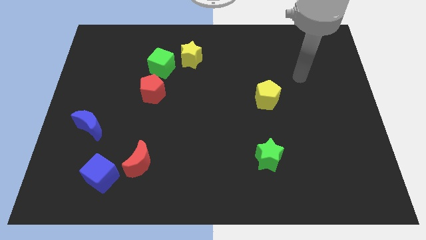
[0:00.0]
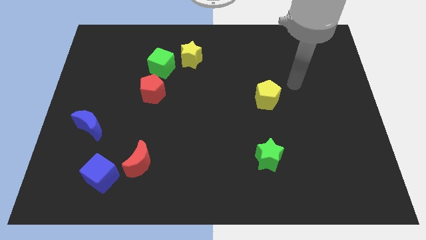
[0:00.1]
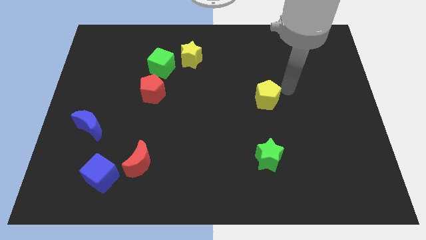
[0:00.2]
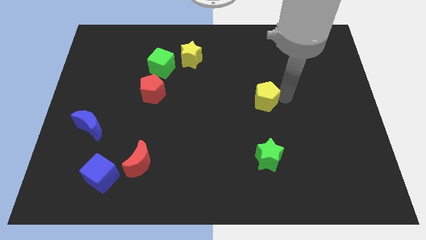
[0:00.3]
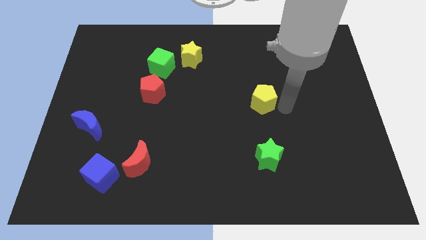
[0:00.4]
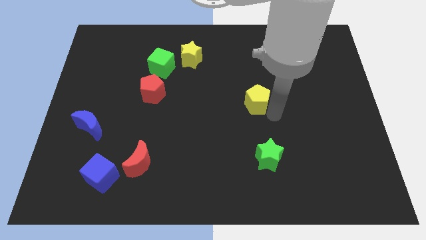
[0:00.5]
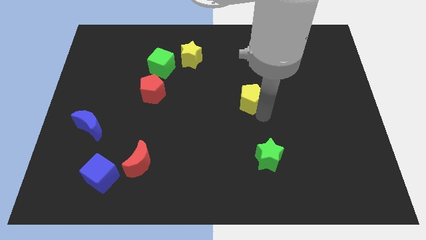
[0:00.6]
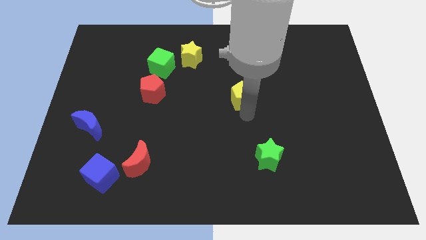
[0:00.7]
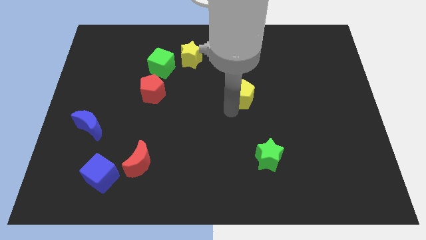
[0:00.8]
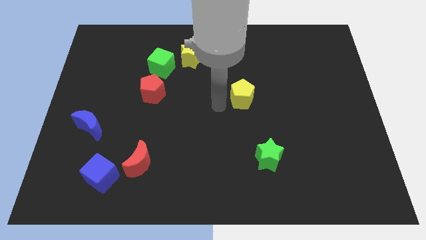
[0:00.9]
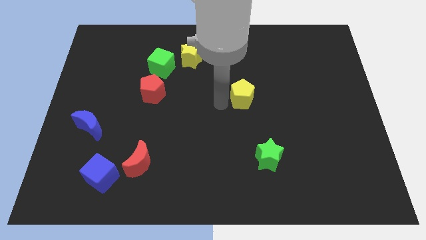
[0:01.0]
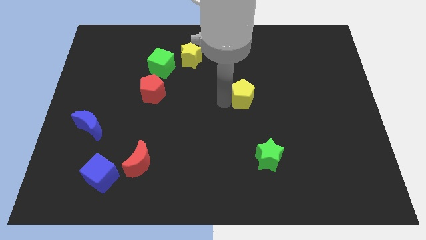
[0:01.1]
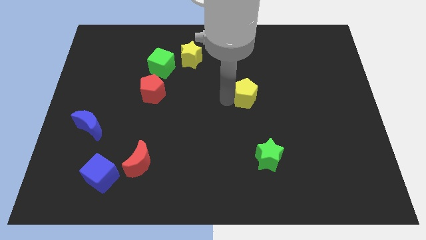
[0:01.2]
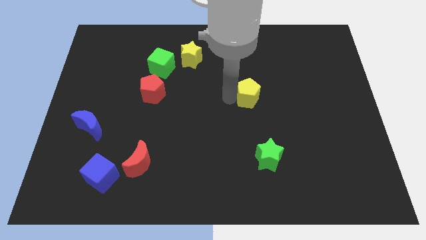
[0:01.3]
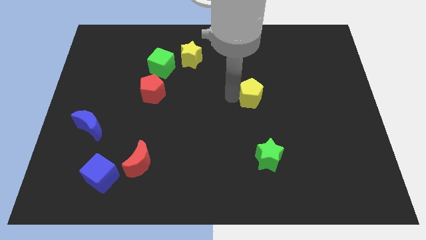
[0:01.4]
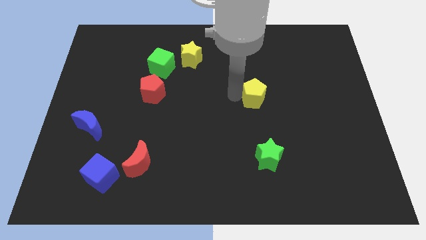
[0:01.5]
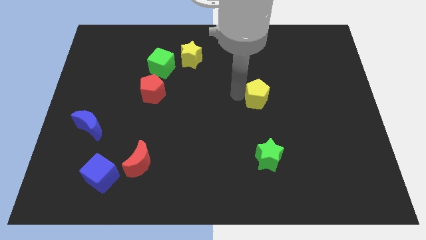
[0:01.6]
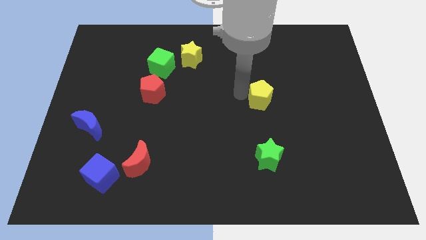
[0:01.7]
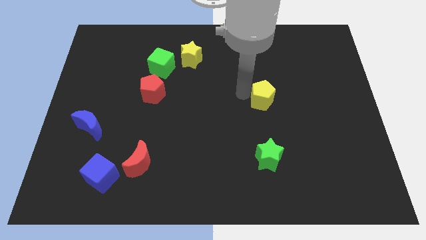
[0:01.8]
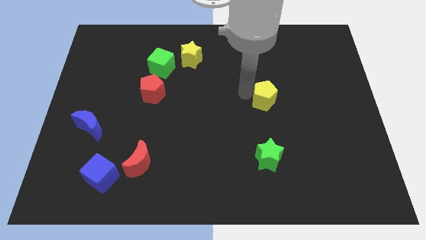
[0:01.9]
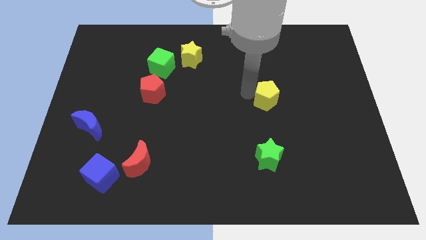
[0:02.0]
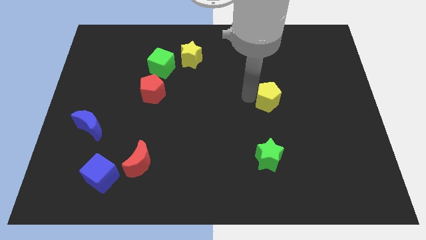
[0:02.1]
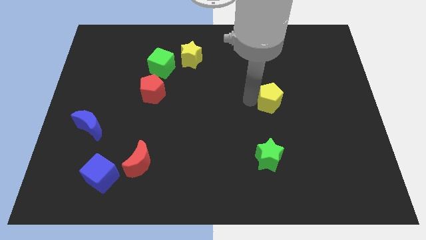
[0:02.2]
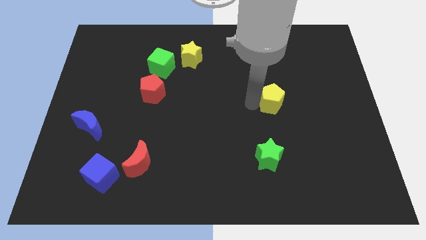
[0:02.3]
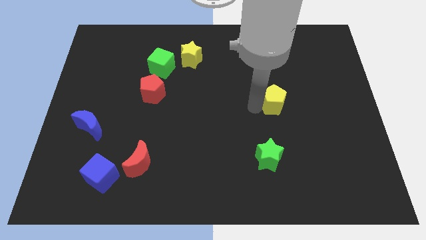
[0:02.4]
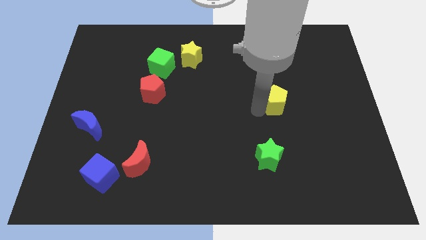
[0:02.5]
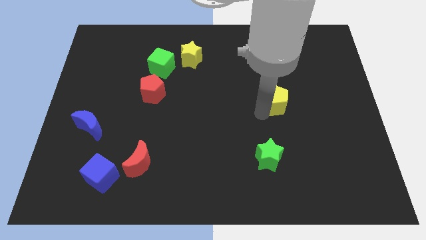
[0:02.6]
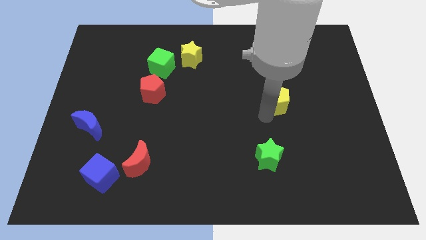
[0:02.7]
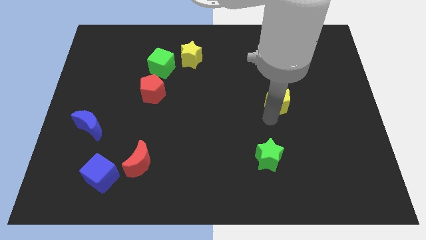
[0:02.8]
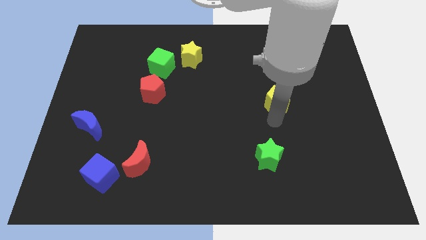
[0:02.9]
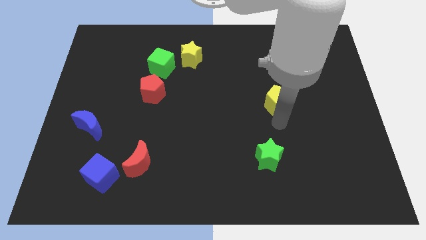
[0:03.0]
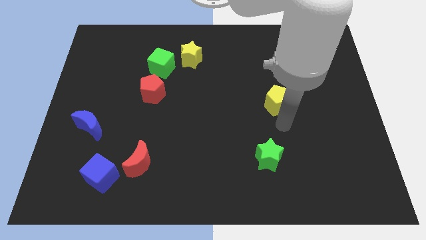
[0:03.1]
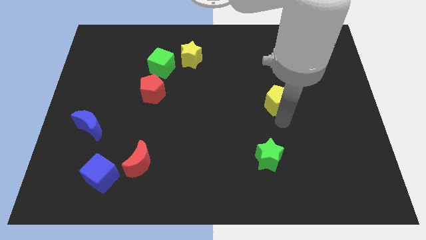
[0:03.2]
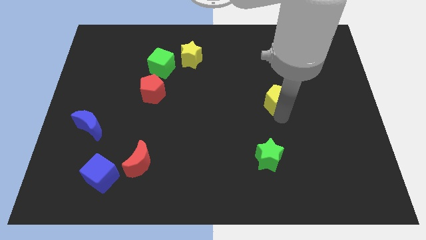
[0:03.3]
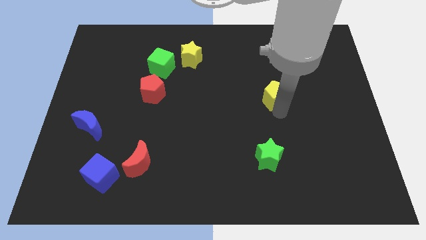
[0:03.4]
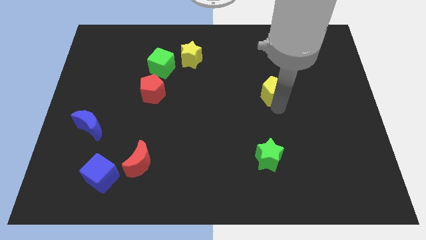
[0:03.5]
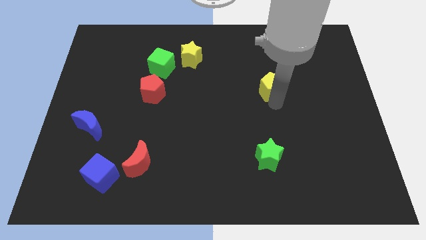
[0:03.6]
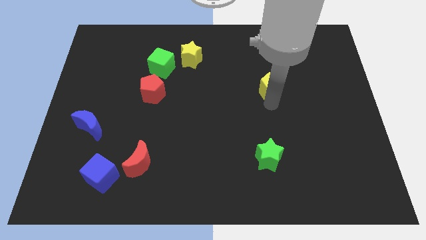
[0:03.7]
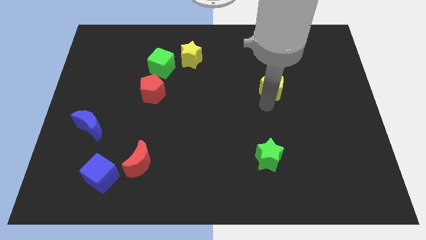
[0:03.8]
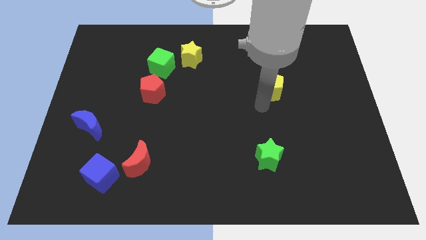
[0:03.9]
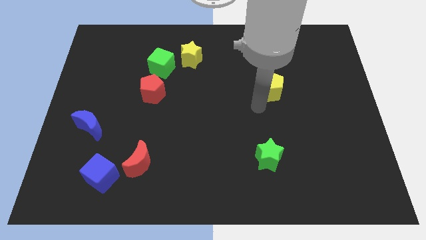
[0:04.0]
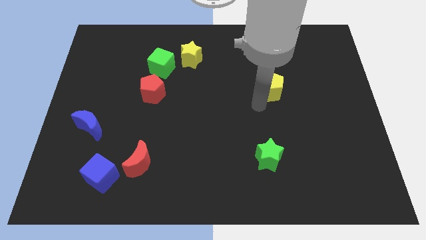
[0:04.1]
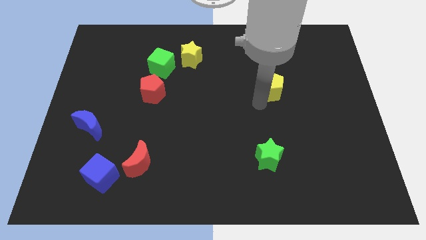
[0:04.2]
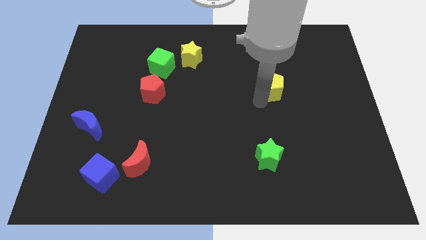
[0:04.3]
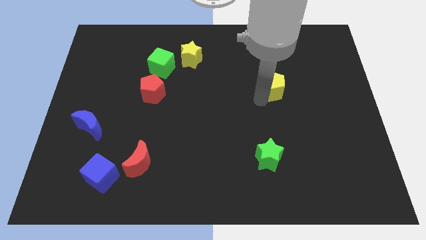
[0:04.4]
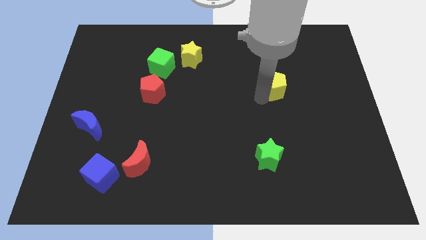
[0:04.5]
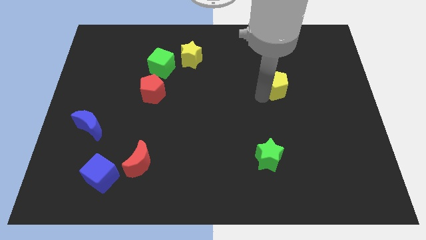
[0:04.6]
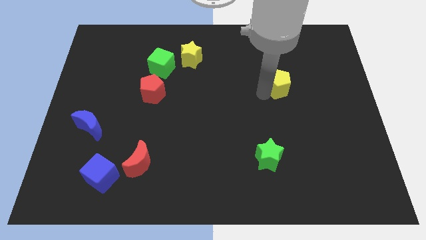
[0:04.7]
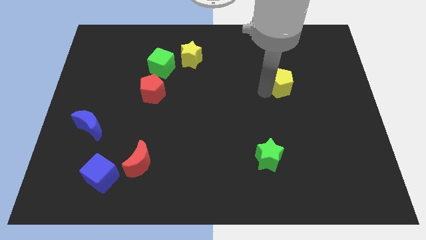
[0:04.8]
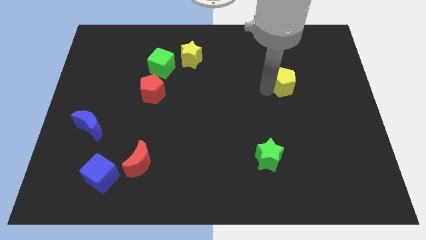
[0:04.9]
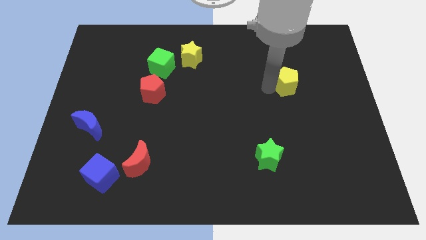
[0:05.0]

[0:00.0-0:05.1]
move the yellow pentagon up and then to the right slightly

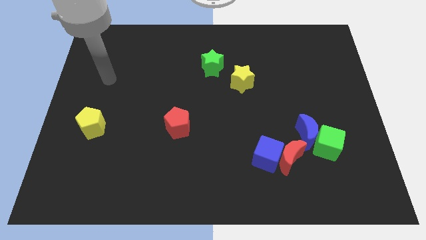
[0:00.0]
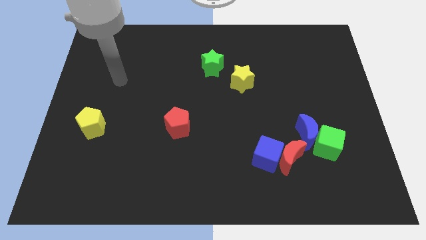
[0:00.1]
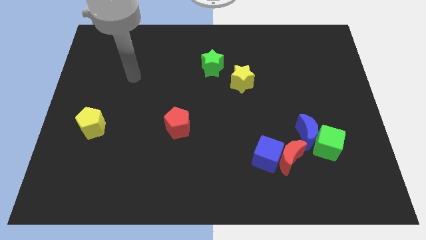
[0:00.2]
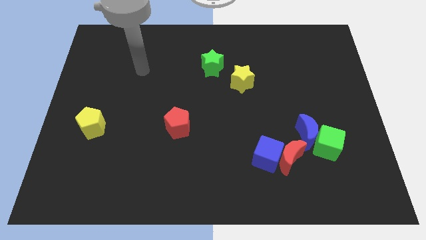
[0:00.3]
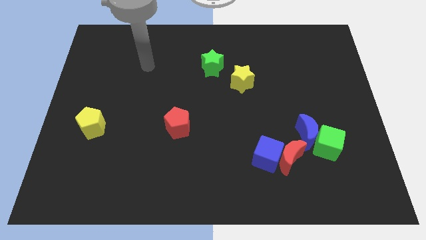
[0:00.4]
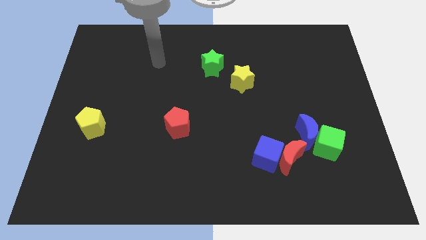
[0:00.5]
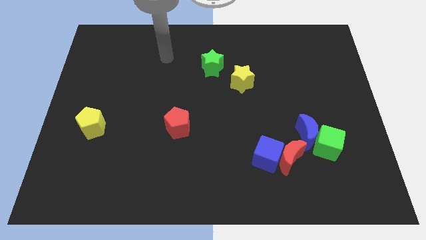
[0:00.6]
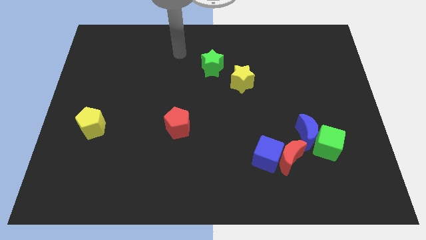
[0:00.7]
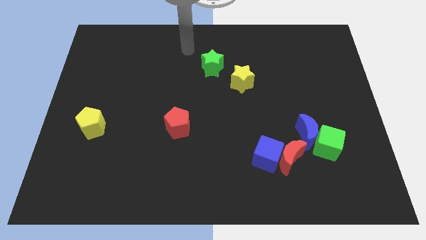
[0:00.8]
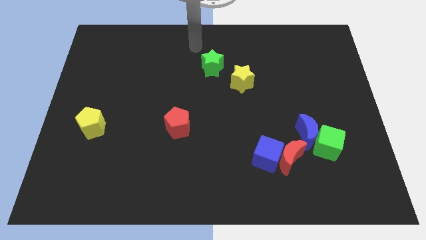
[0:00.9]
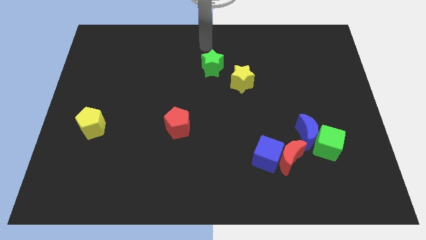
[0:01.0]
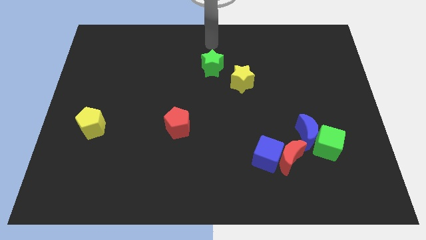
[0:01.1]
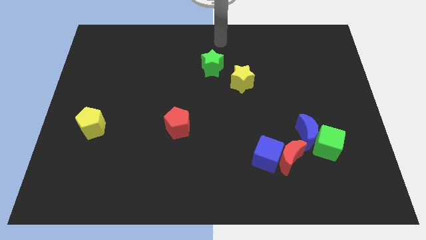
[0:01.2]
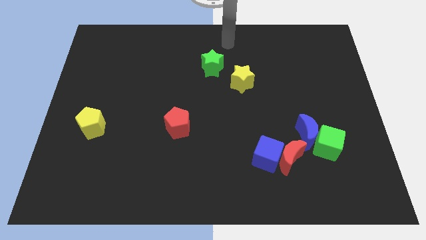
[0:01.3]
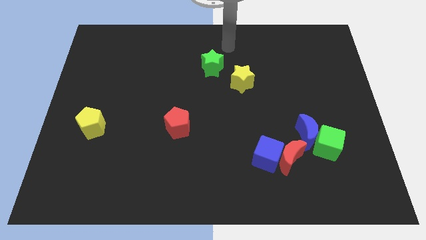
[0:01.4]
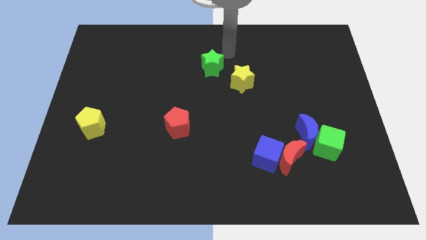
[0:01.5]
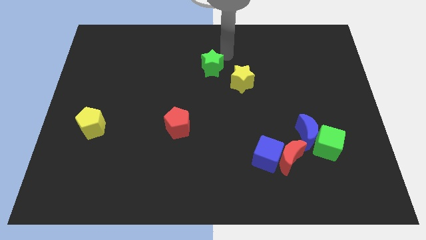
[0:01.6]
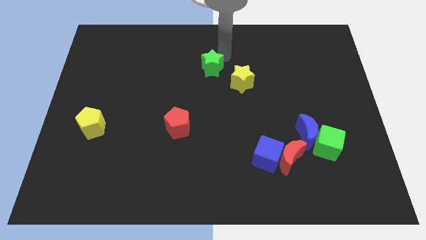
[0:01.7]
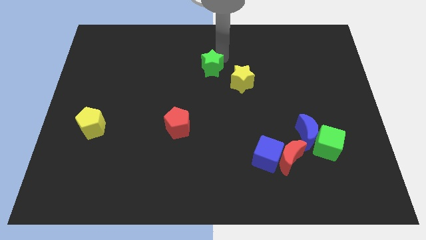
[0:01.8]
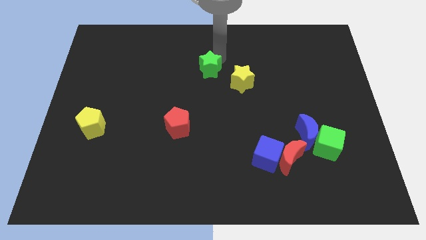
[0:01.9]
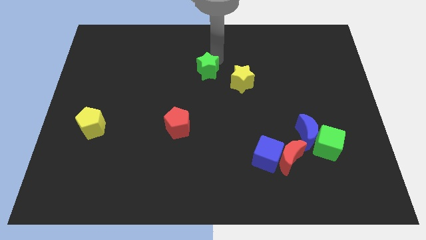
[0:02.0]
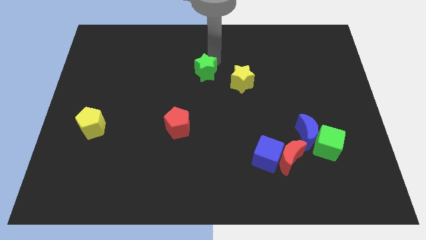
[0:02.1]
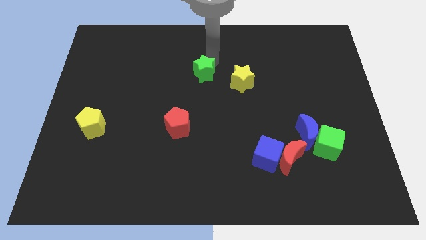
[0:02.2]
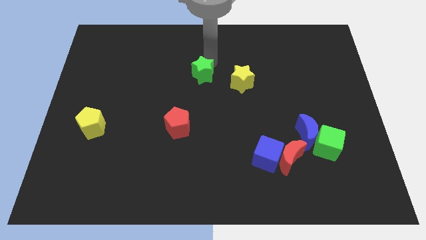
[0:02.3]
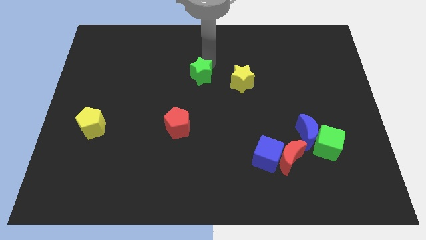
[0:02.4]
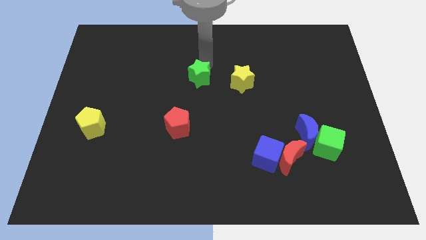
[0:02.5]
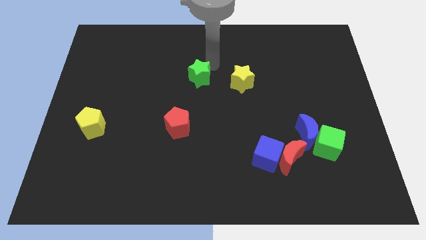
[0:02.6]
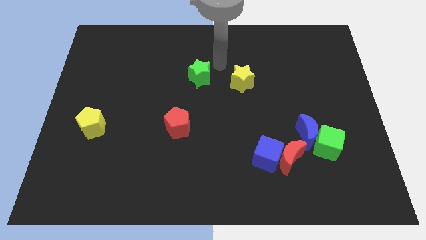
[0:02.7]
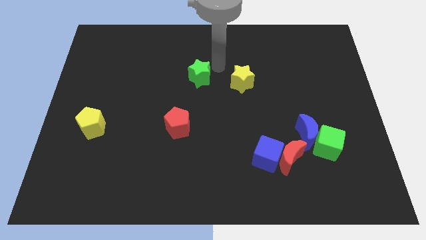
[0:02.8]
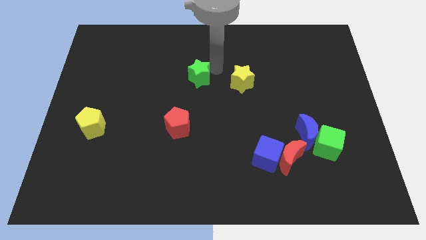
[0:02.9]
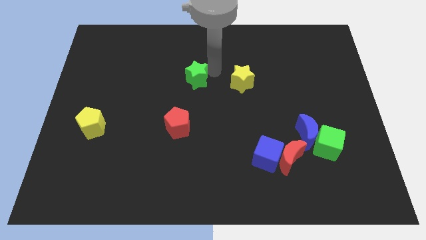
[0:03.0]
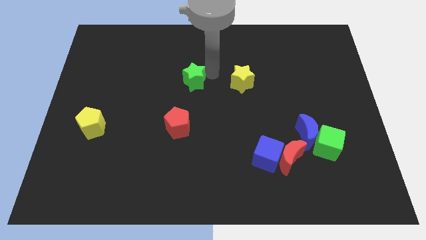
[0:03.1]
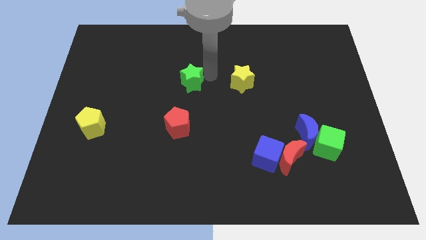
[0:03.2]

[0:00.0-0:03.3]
push the green star somewhat down and to the left
